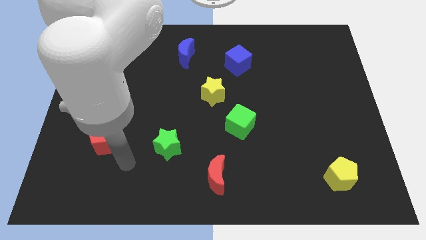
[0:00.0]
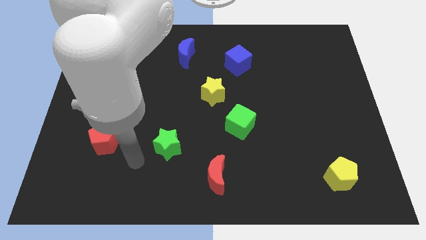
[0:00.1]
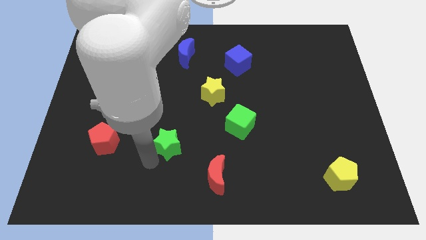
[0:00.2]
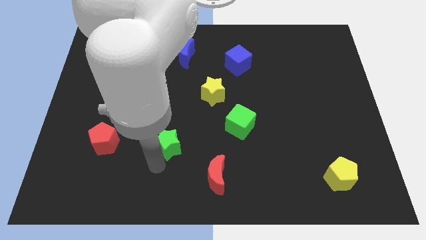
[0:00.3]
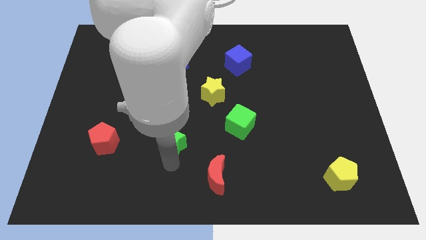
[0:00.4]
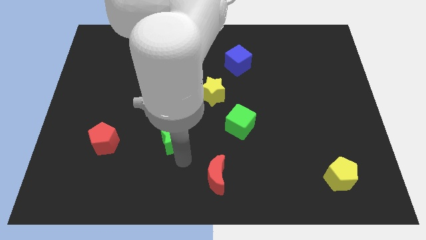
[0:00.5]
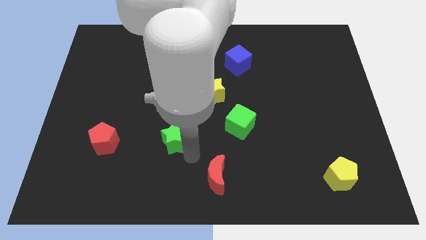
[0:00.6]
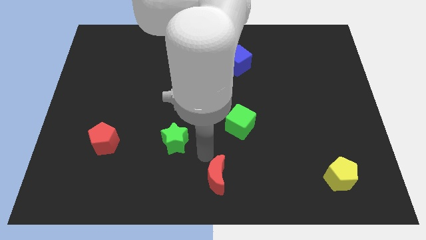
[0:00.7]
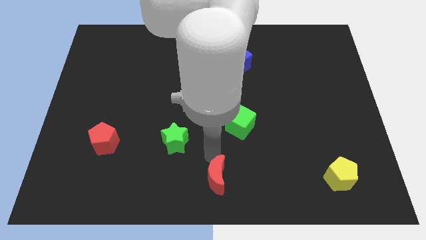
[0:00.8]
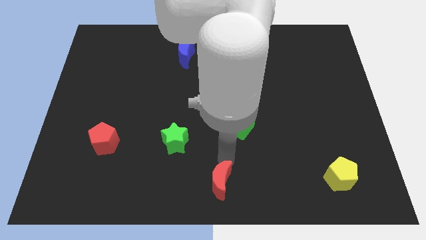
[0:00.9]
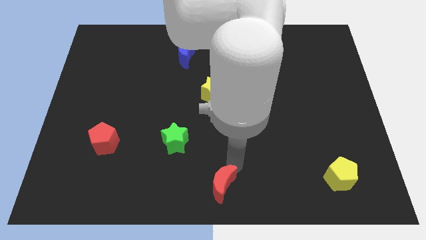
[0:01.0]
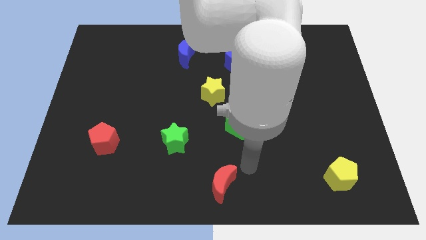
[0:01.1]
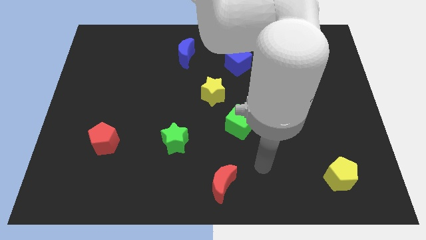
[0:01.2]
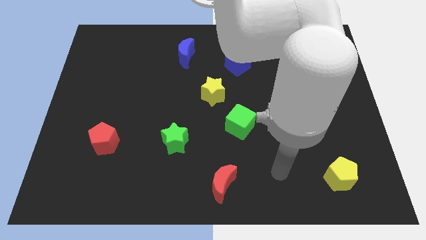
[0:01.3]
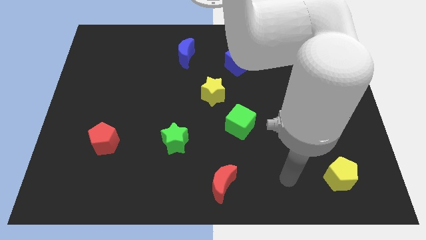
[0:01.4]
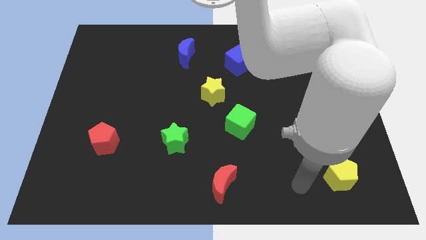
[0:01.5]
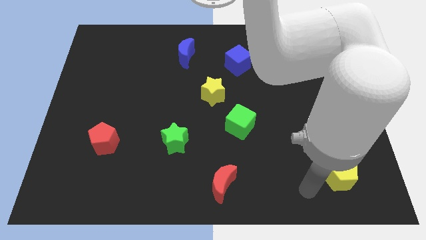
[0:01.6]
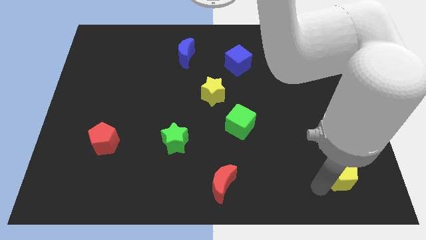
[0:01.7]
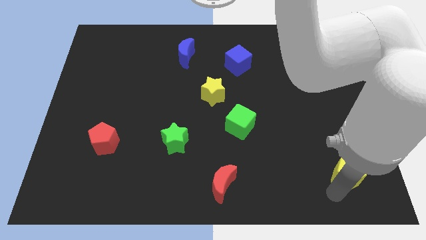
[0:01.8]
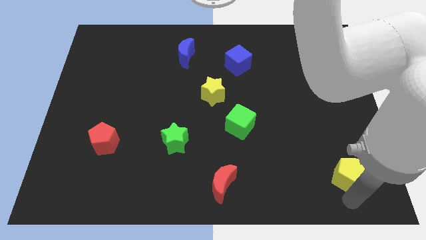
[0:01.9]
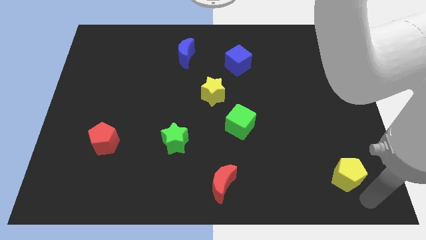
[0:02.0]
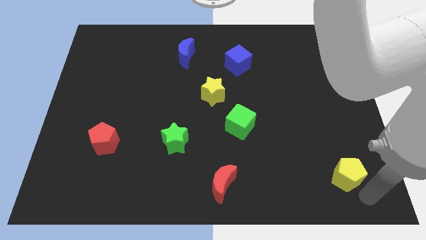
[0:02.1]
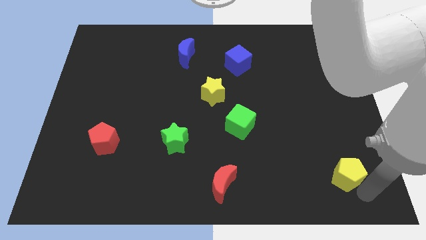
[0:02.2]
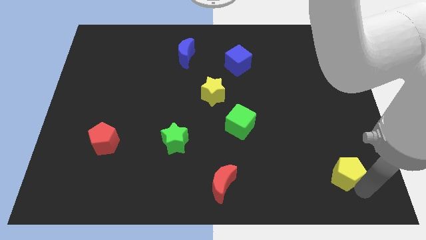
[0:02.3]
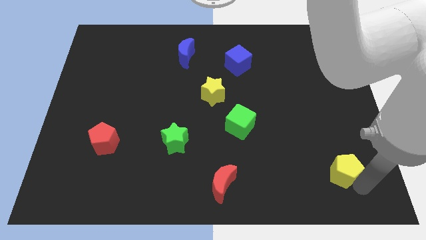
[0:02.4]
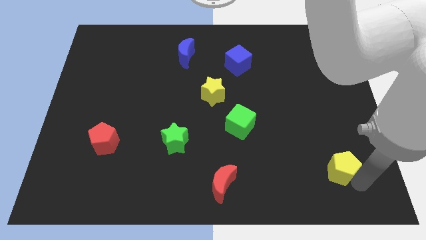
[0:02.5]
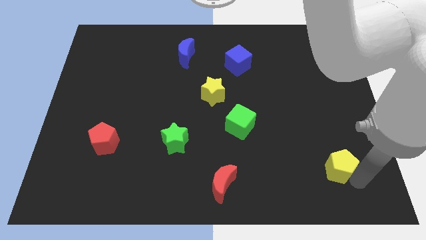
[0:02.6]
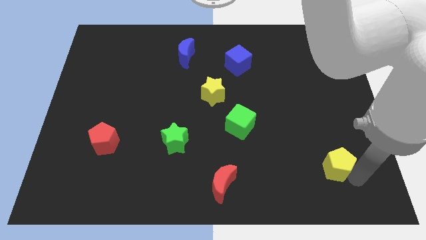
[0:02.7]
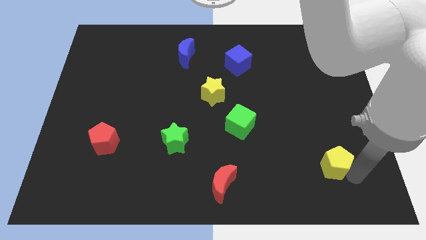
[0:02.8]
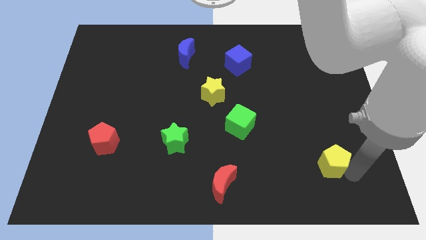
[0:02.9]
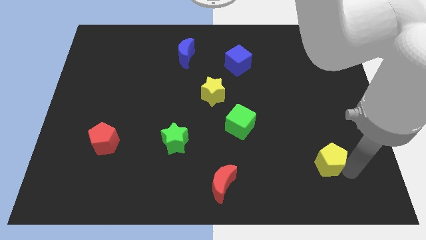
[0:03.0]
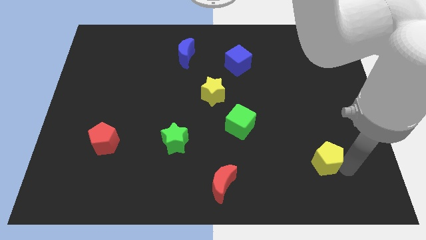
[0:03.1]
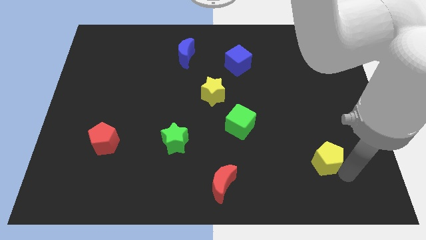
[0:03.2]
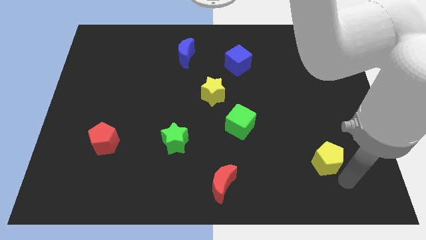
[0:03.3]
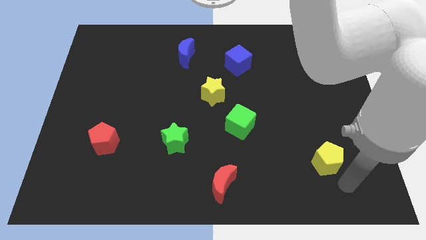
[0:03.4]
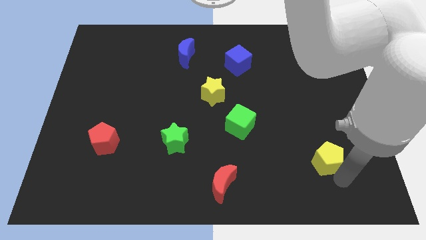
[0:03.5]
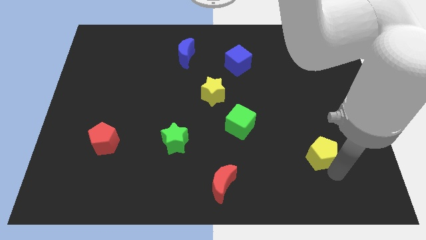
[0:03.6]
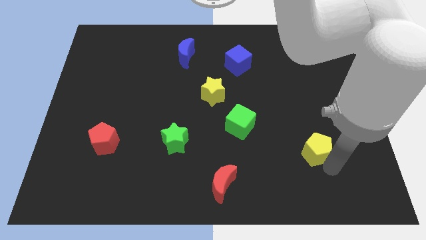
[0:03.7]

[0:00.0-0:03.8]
move the yellow pentagon slightly up and left diagonally

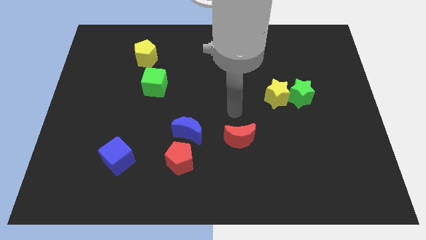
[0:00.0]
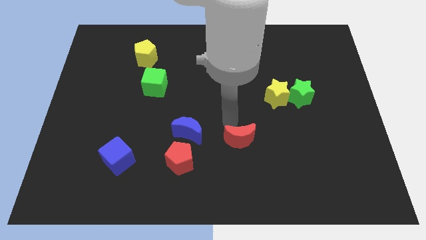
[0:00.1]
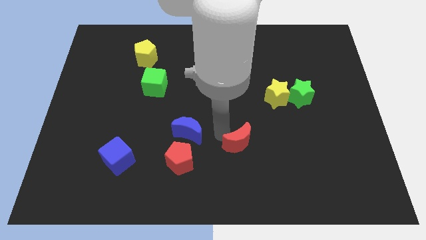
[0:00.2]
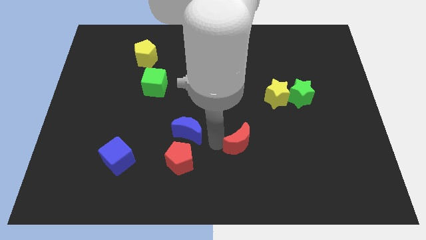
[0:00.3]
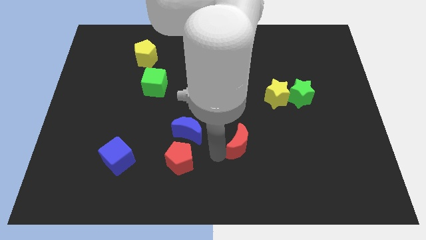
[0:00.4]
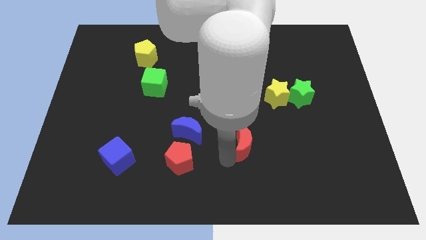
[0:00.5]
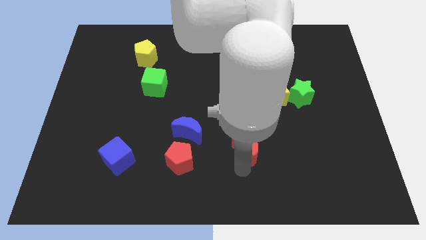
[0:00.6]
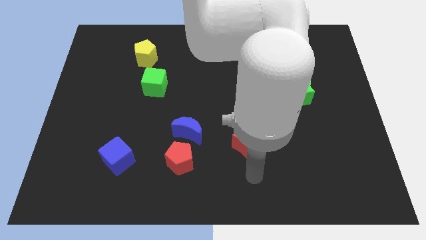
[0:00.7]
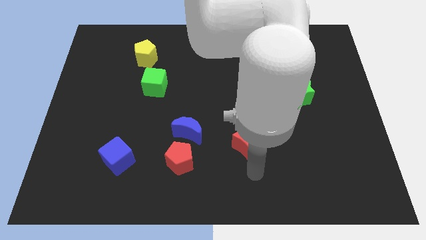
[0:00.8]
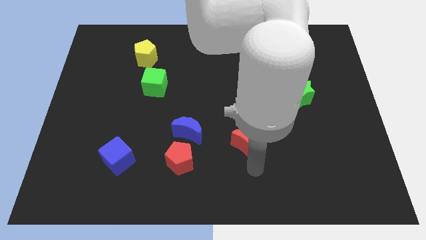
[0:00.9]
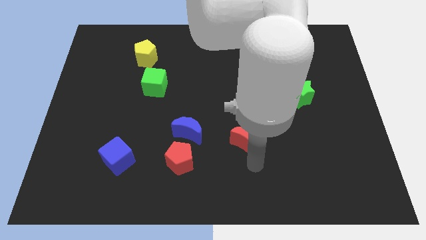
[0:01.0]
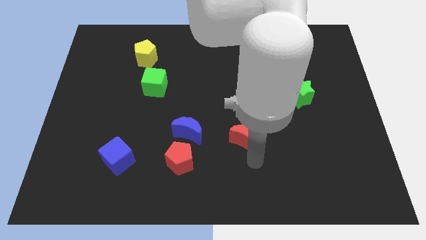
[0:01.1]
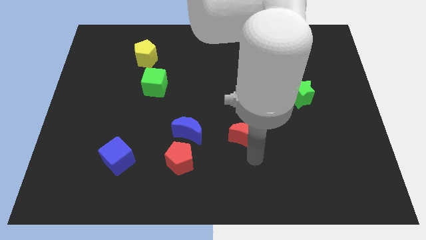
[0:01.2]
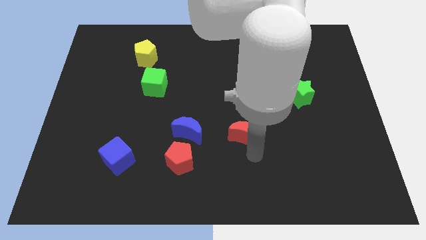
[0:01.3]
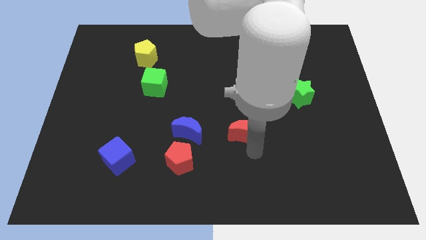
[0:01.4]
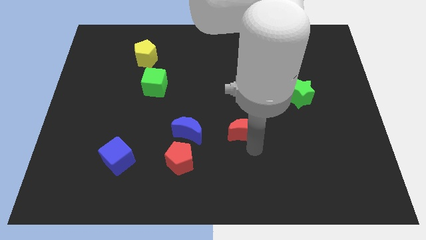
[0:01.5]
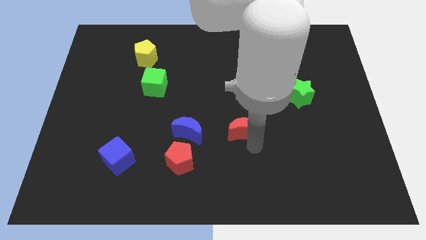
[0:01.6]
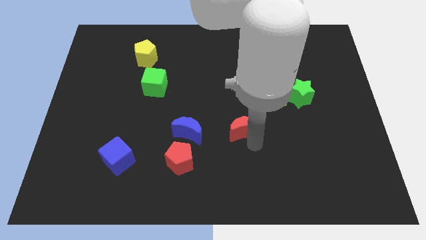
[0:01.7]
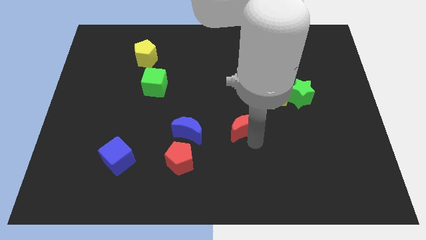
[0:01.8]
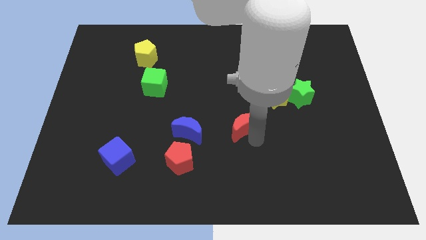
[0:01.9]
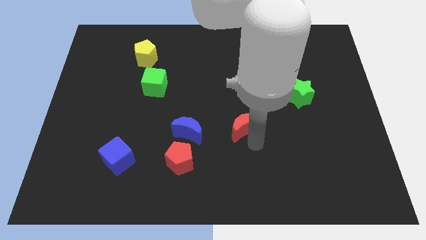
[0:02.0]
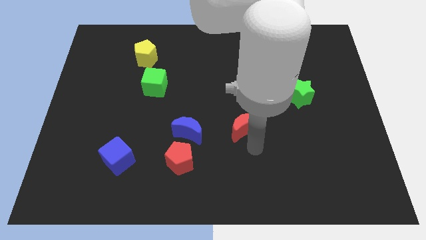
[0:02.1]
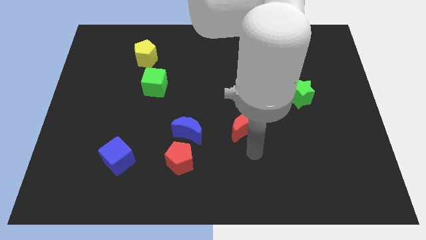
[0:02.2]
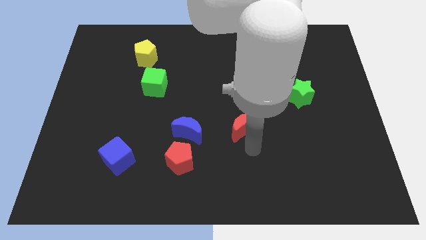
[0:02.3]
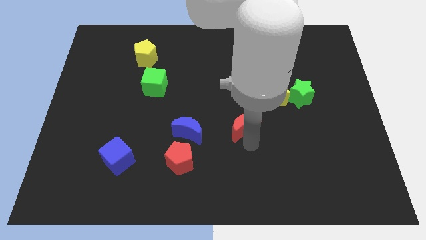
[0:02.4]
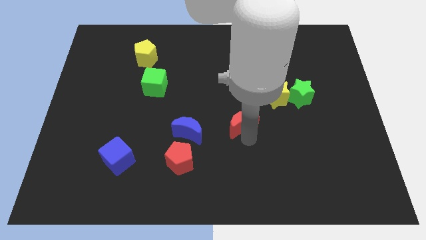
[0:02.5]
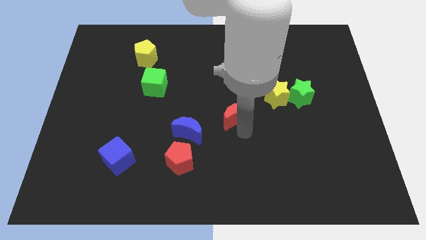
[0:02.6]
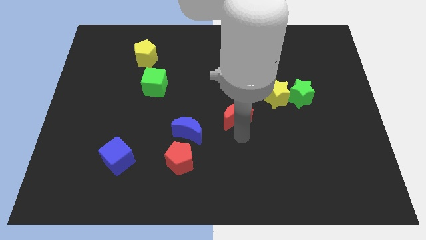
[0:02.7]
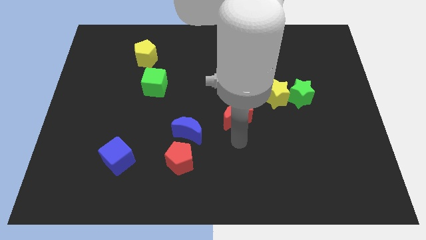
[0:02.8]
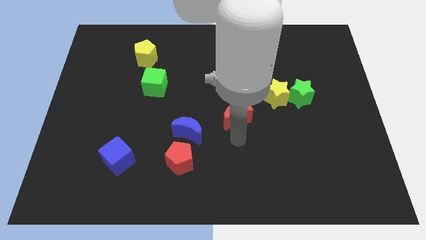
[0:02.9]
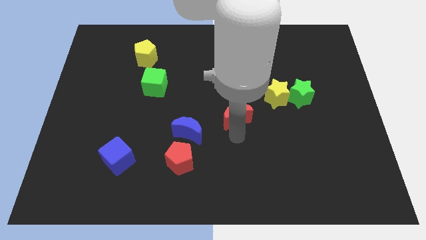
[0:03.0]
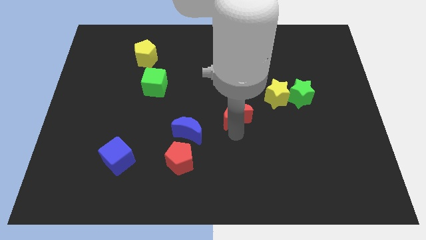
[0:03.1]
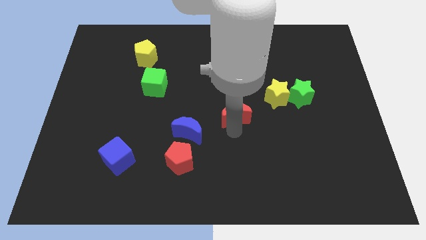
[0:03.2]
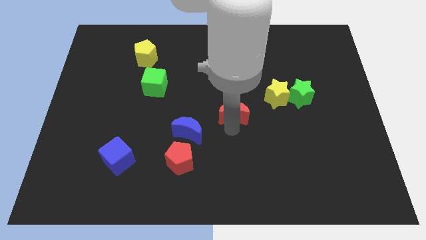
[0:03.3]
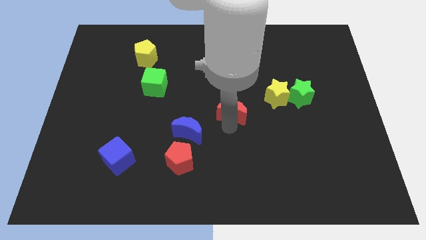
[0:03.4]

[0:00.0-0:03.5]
slightly move the red moon up

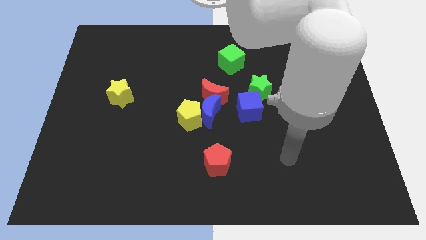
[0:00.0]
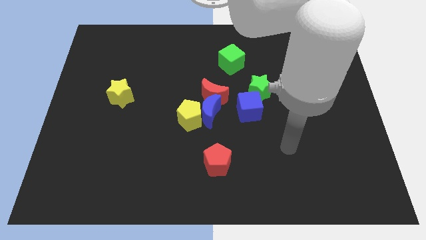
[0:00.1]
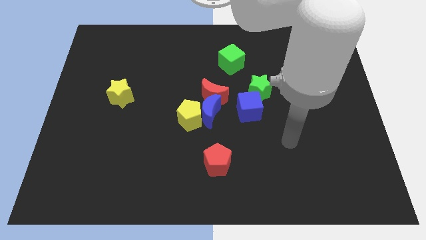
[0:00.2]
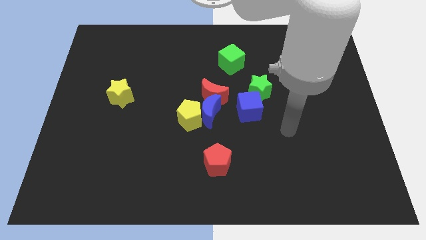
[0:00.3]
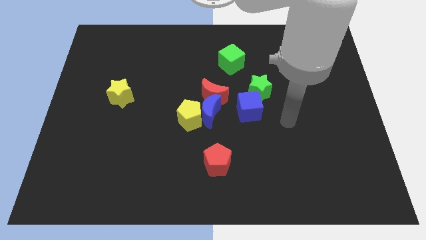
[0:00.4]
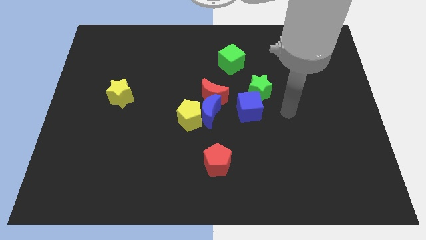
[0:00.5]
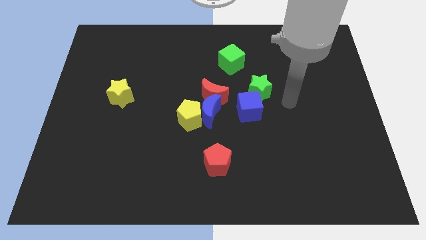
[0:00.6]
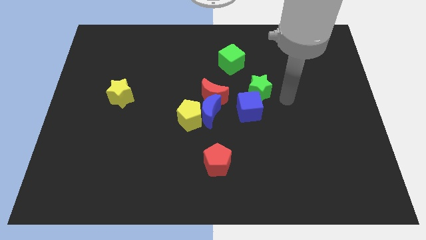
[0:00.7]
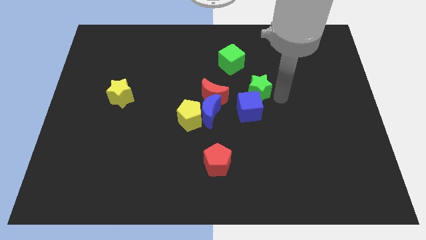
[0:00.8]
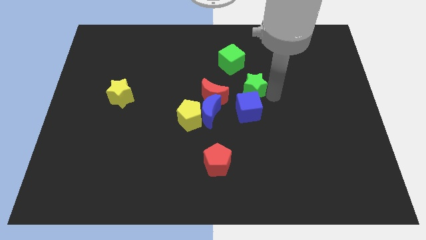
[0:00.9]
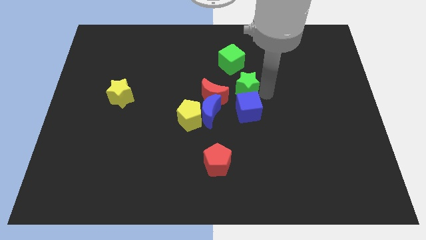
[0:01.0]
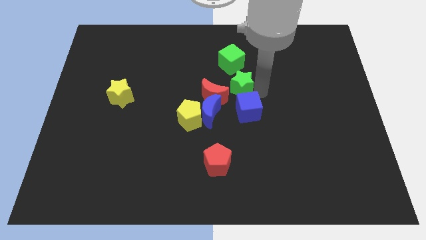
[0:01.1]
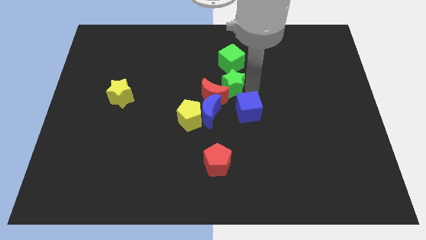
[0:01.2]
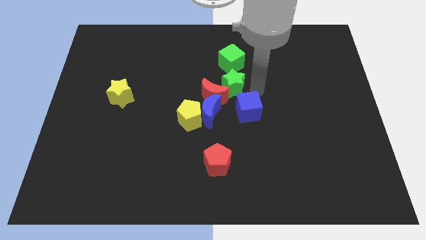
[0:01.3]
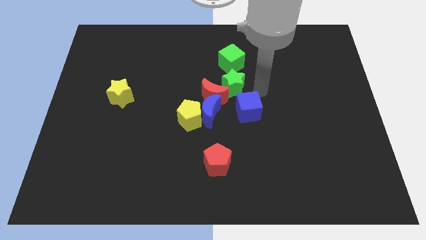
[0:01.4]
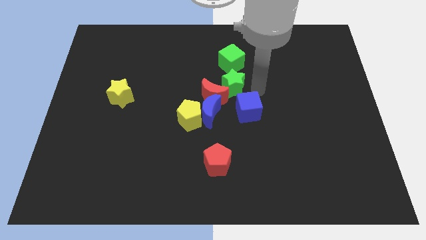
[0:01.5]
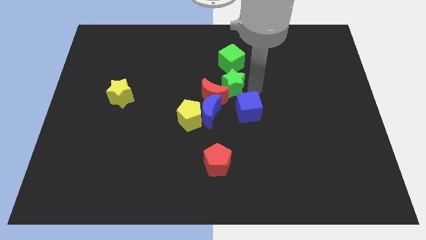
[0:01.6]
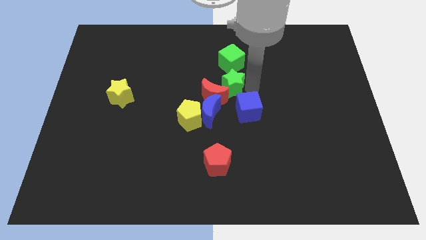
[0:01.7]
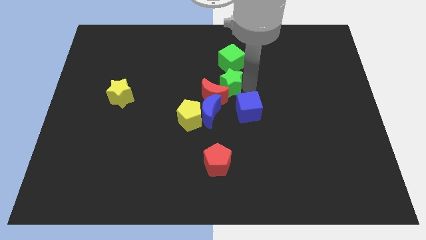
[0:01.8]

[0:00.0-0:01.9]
slightly push the green star to the left
